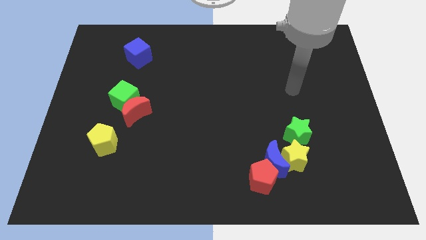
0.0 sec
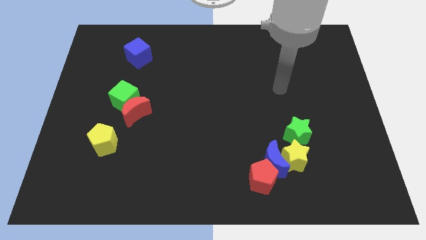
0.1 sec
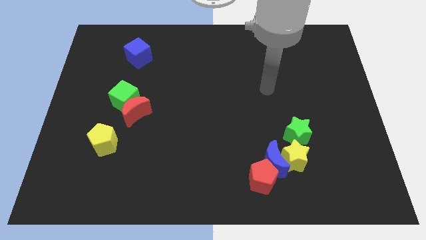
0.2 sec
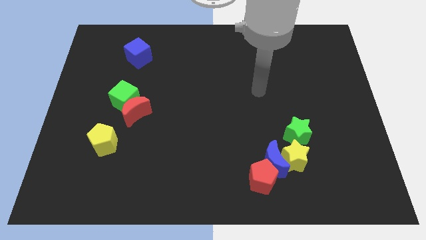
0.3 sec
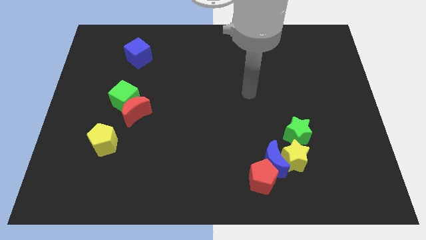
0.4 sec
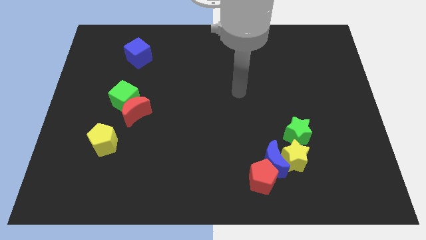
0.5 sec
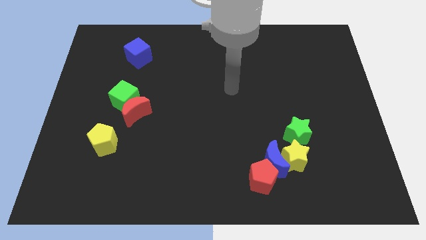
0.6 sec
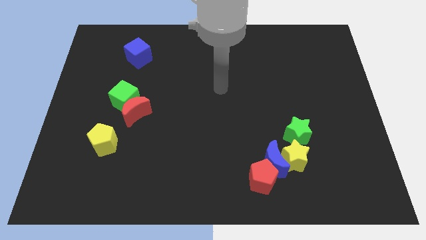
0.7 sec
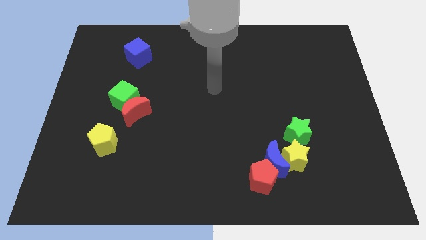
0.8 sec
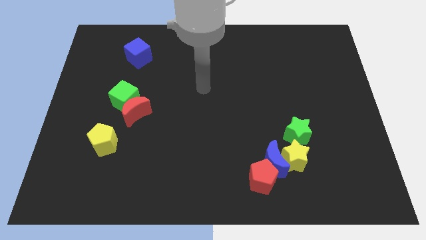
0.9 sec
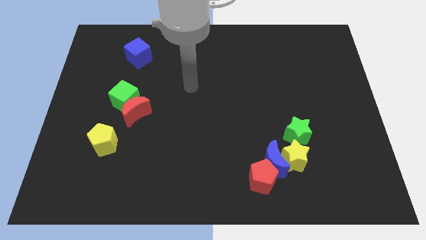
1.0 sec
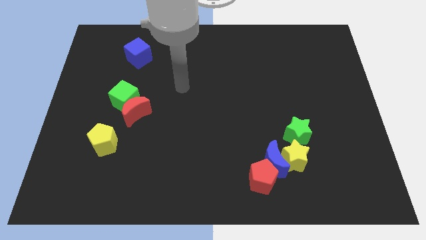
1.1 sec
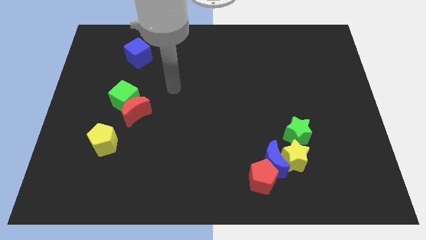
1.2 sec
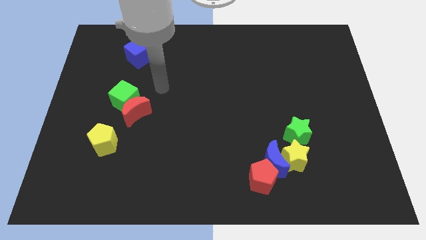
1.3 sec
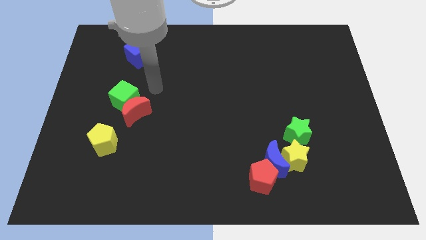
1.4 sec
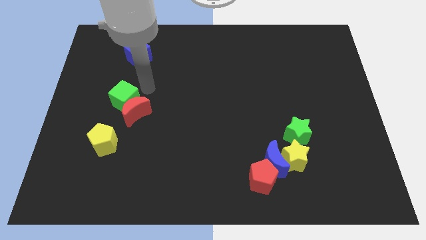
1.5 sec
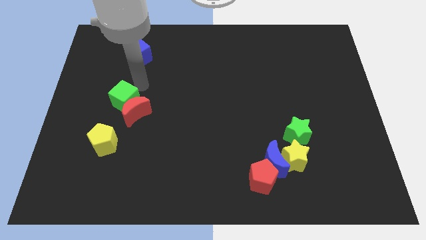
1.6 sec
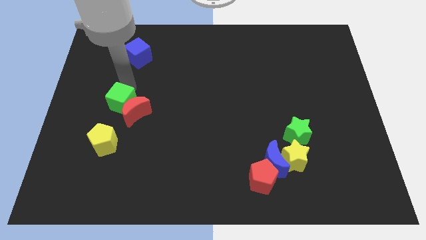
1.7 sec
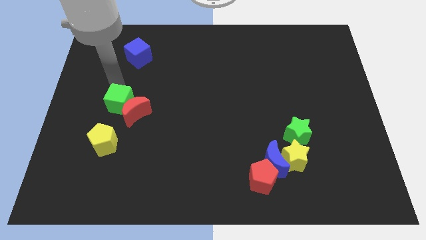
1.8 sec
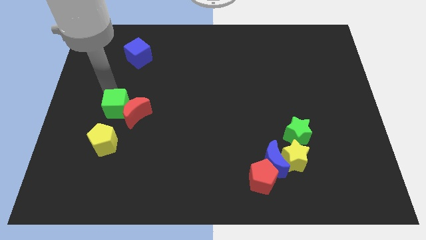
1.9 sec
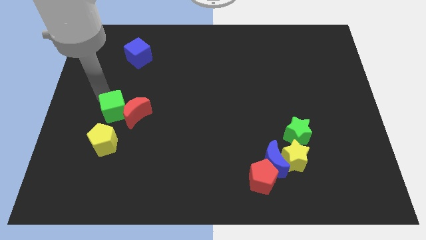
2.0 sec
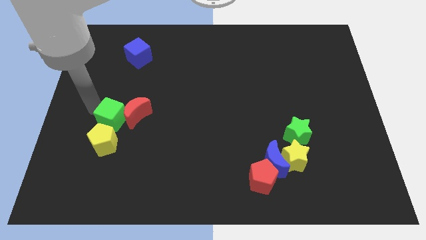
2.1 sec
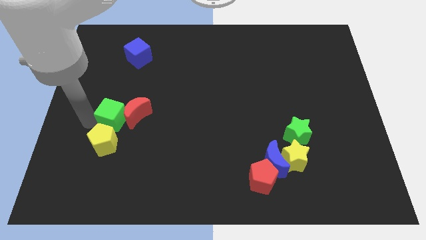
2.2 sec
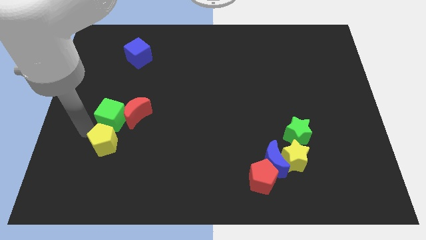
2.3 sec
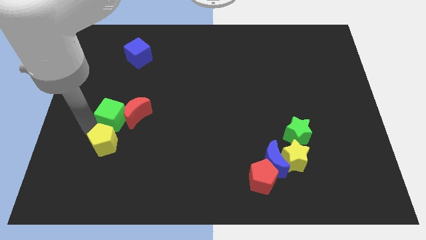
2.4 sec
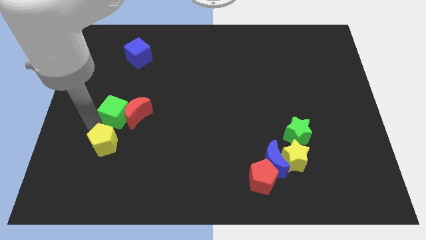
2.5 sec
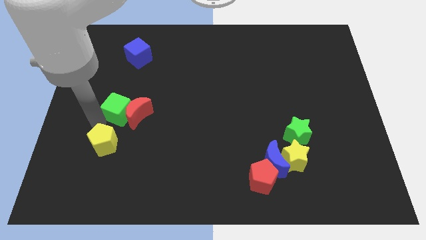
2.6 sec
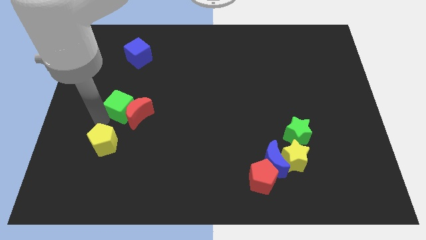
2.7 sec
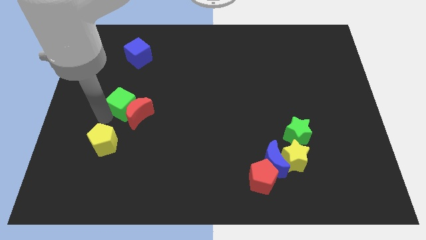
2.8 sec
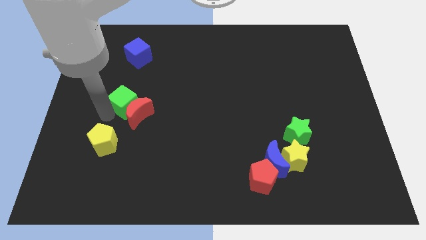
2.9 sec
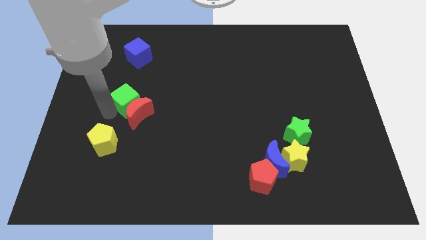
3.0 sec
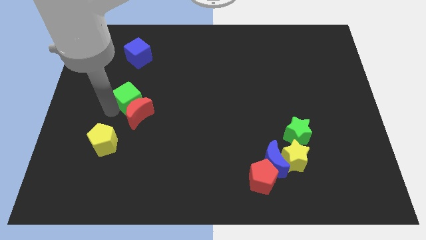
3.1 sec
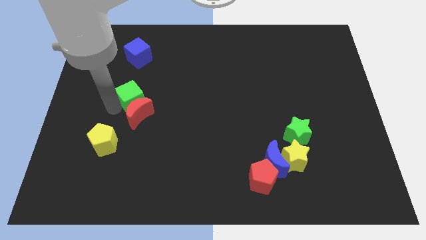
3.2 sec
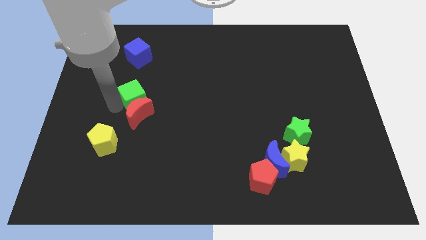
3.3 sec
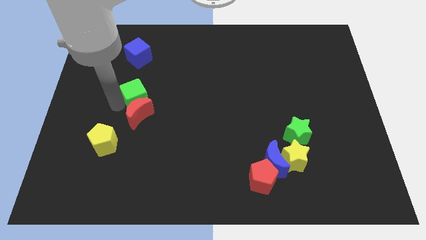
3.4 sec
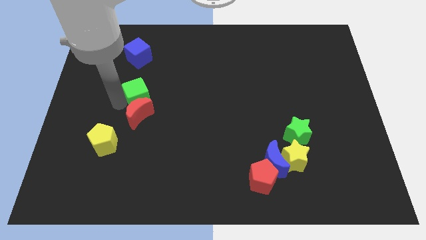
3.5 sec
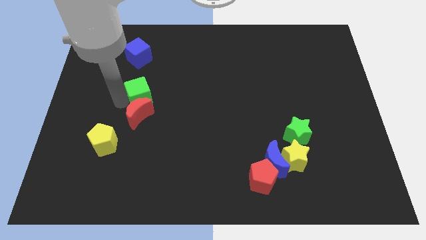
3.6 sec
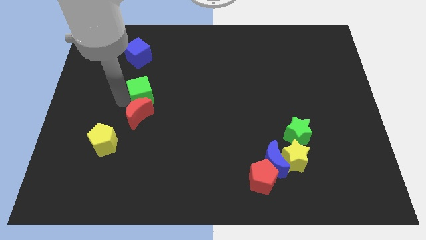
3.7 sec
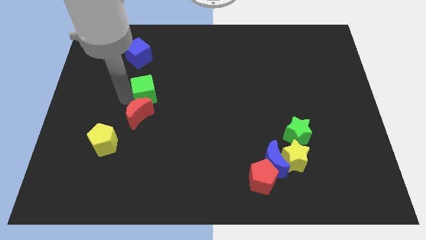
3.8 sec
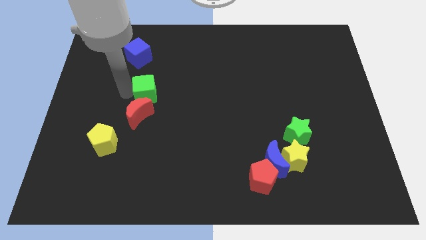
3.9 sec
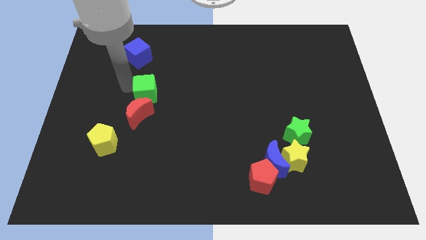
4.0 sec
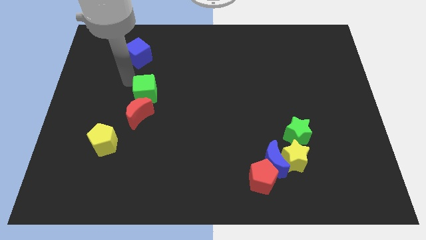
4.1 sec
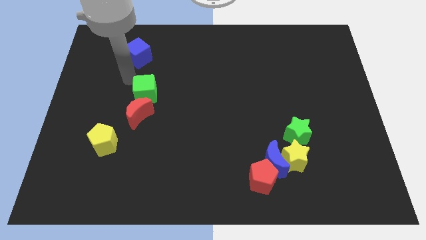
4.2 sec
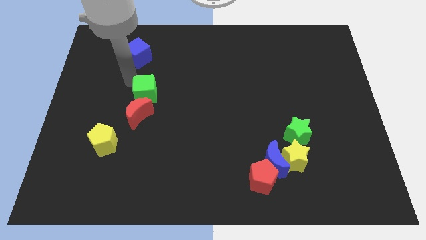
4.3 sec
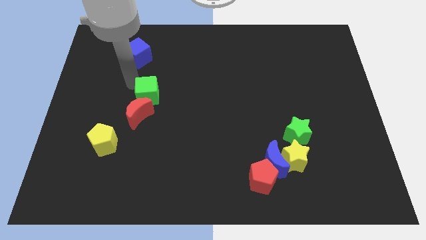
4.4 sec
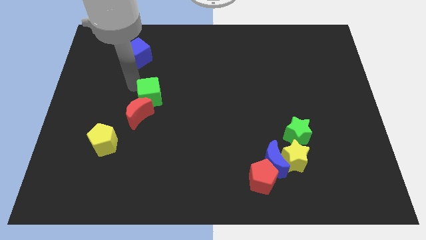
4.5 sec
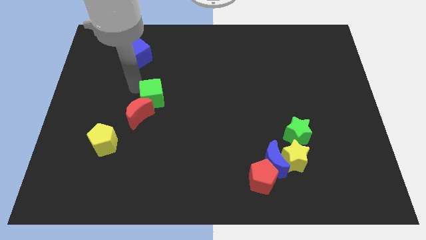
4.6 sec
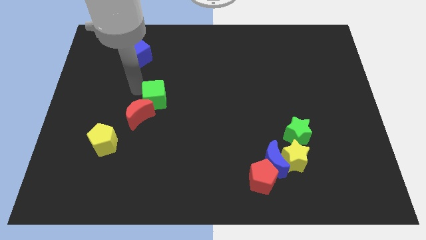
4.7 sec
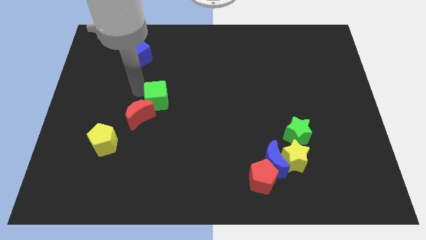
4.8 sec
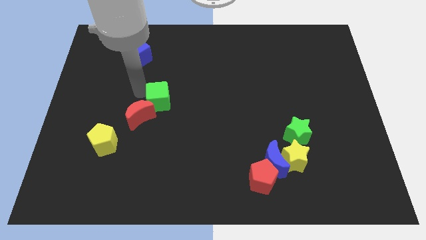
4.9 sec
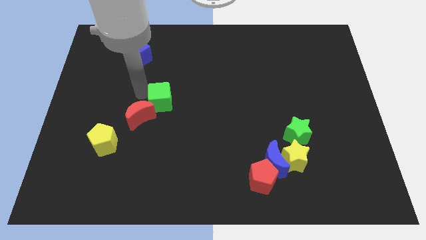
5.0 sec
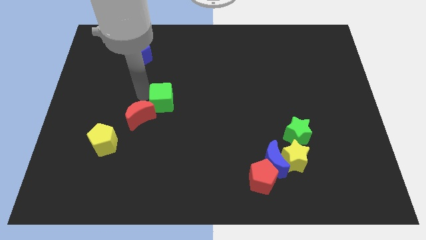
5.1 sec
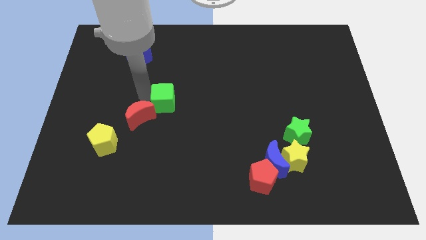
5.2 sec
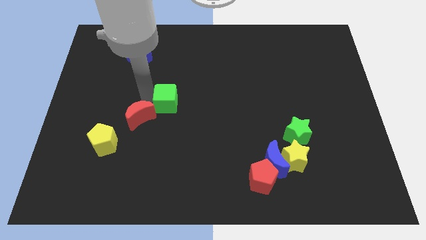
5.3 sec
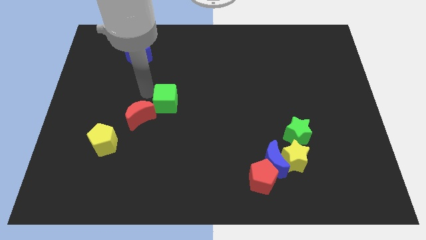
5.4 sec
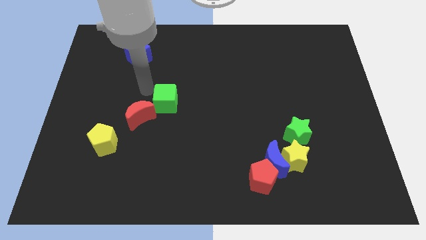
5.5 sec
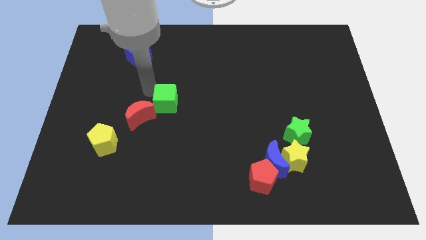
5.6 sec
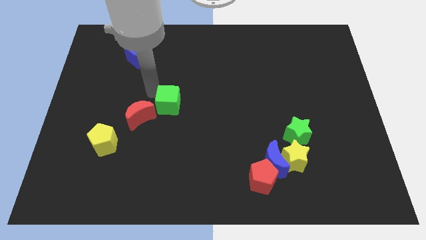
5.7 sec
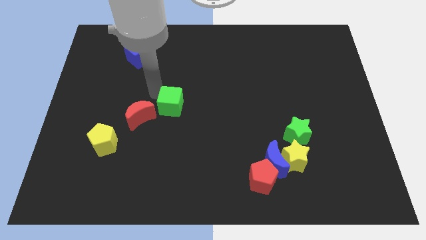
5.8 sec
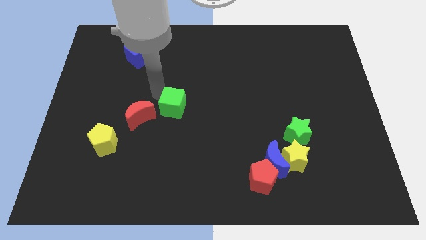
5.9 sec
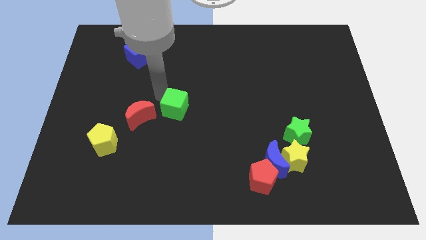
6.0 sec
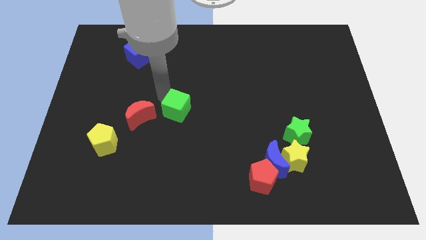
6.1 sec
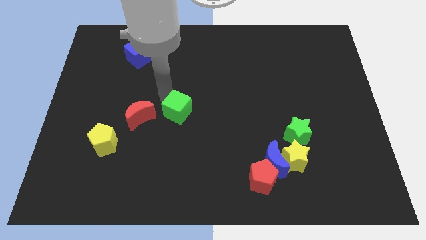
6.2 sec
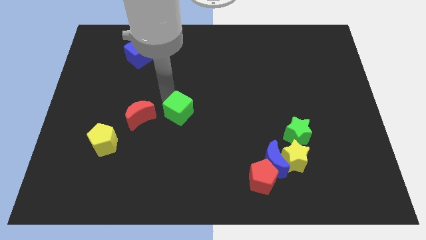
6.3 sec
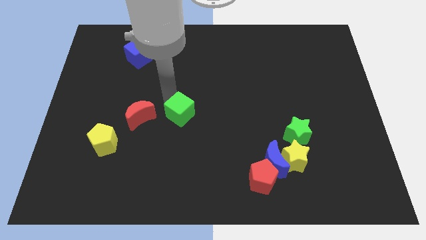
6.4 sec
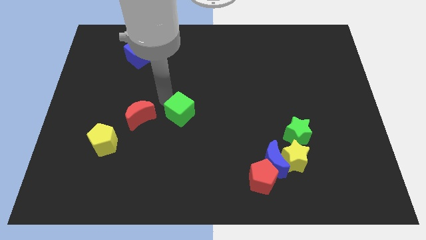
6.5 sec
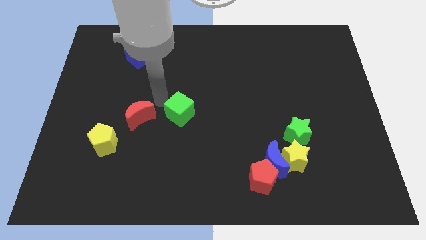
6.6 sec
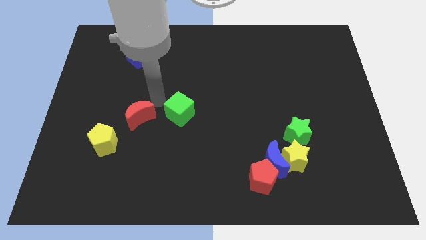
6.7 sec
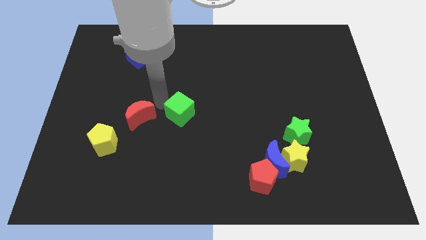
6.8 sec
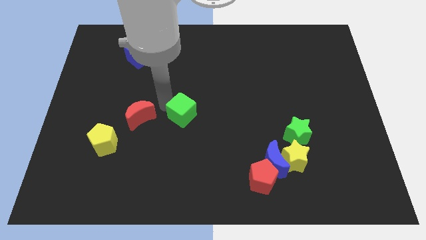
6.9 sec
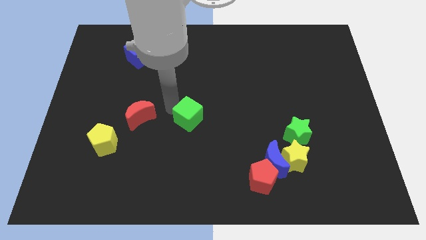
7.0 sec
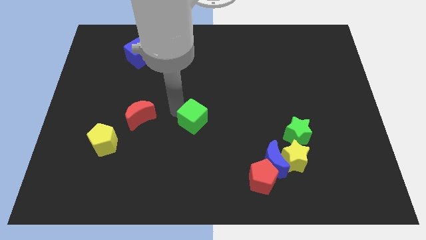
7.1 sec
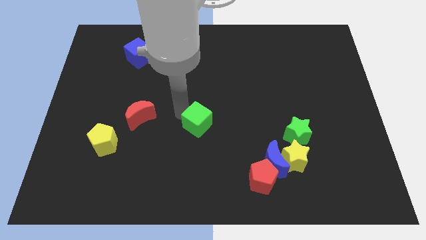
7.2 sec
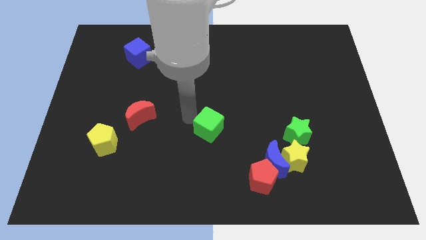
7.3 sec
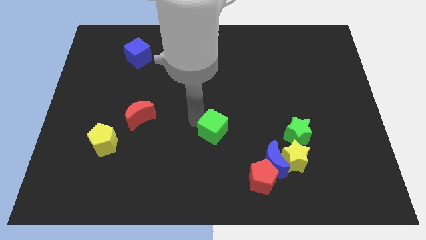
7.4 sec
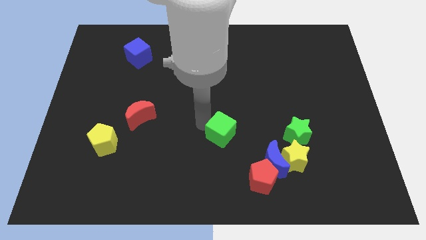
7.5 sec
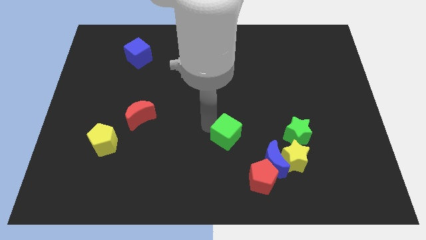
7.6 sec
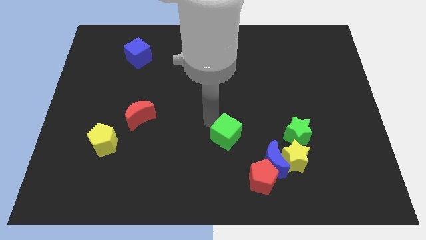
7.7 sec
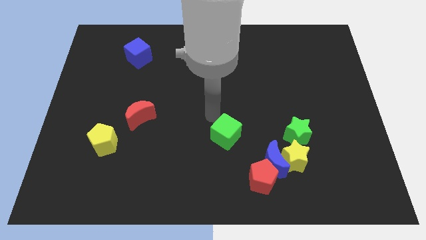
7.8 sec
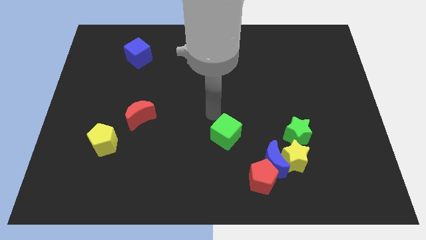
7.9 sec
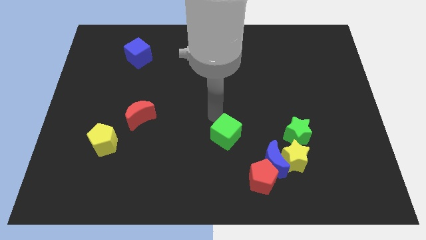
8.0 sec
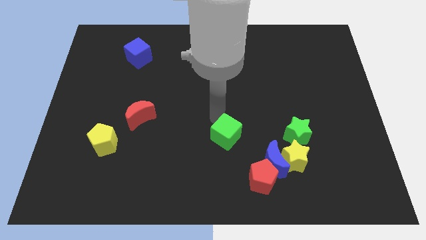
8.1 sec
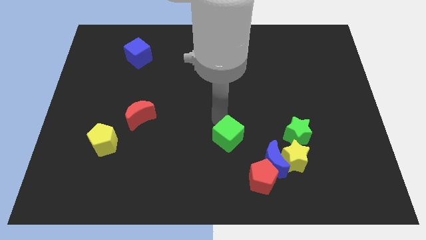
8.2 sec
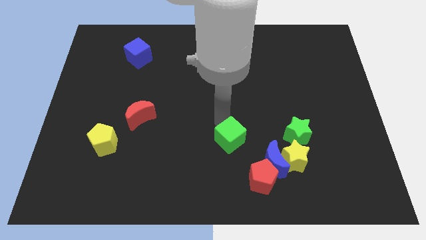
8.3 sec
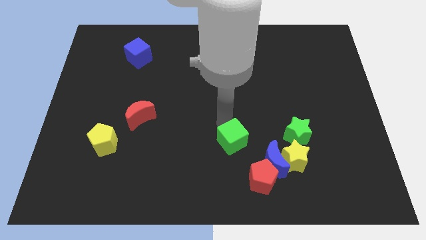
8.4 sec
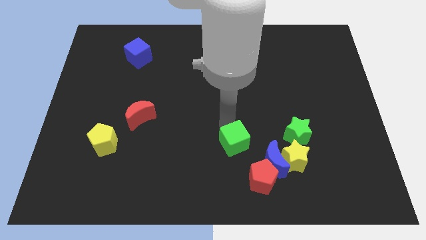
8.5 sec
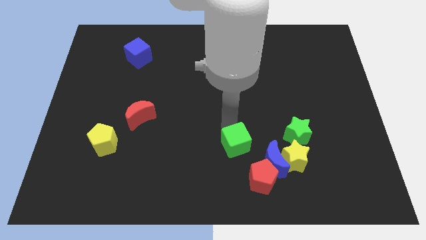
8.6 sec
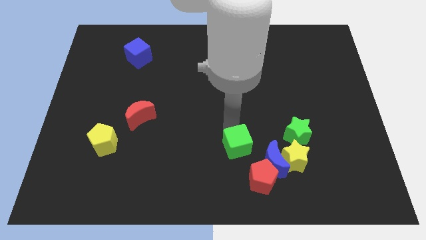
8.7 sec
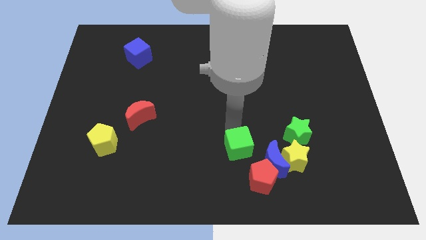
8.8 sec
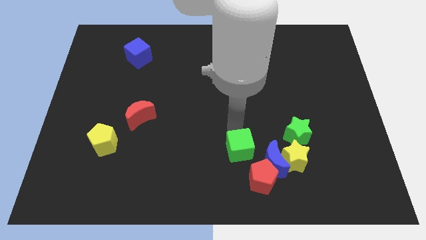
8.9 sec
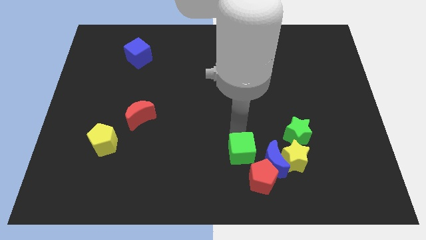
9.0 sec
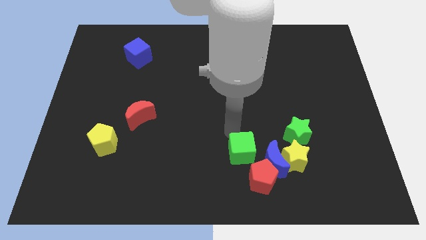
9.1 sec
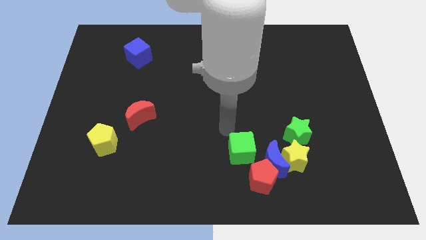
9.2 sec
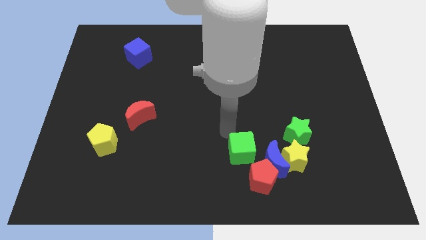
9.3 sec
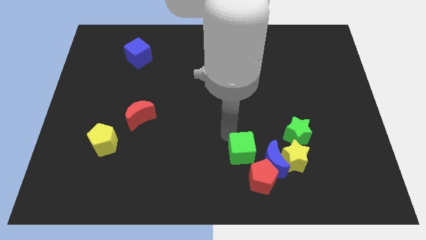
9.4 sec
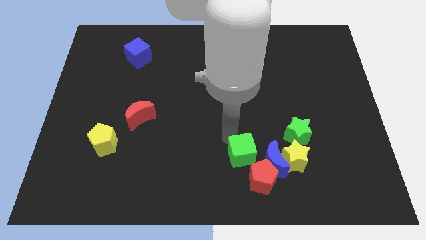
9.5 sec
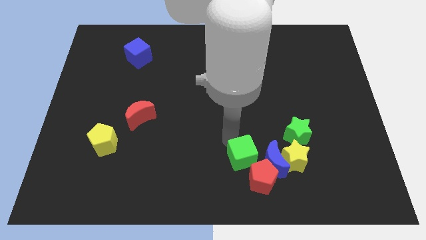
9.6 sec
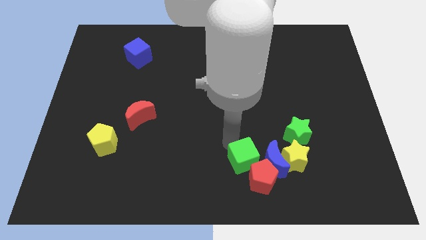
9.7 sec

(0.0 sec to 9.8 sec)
move the green cube to the red pentagon
